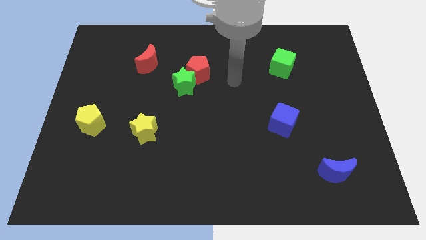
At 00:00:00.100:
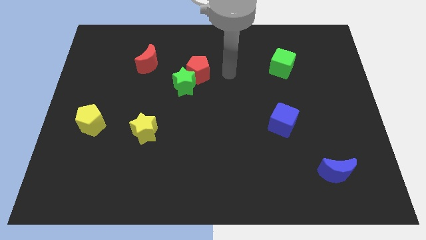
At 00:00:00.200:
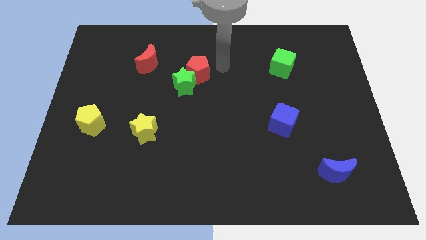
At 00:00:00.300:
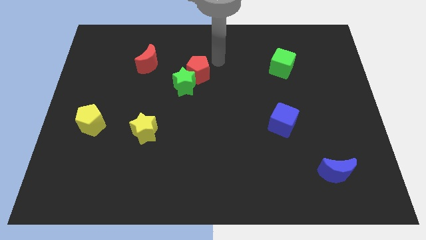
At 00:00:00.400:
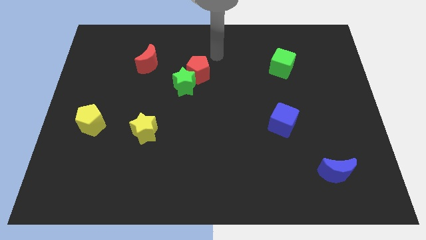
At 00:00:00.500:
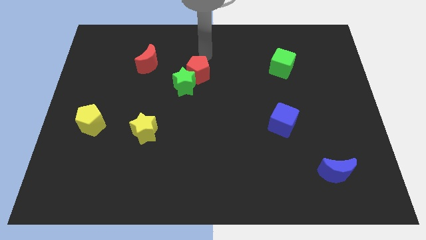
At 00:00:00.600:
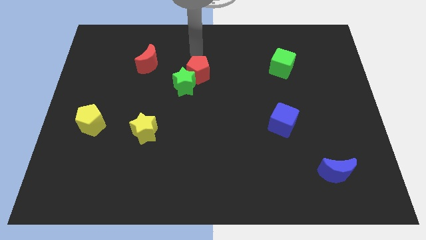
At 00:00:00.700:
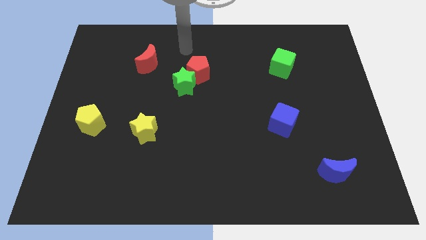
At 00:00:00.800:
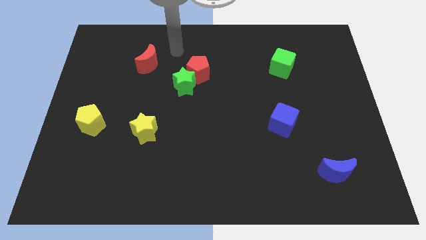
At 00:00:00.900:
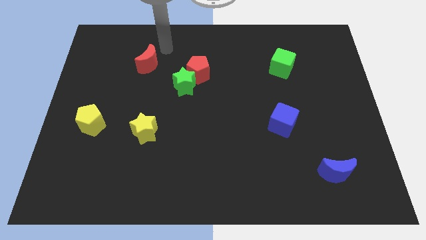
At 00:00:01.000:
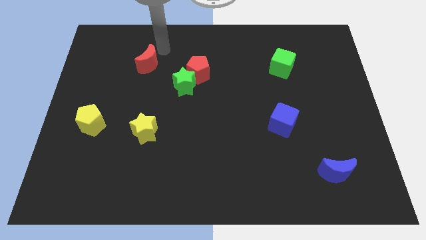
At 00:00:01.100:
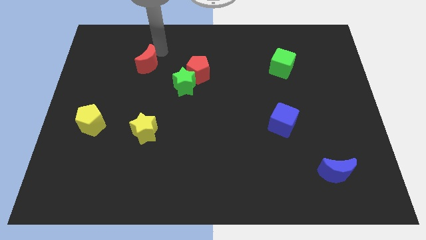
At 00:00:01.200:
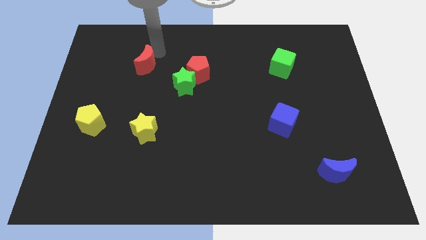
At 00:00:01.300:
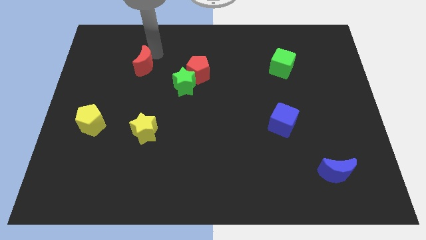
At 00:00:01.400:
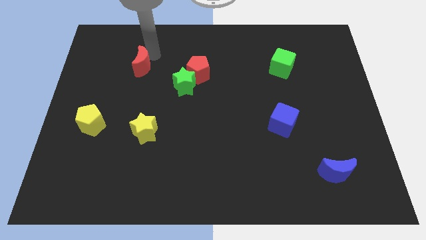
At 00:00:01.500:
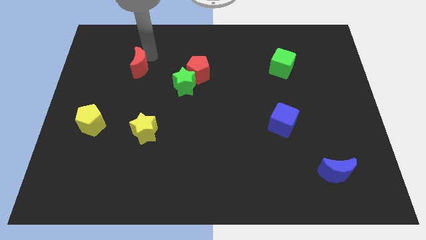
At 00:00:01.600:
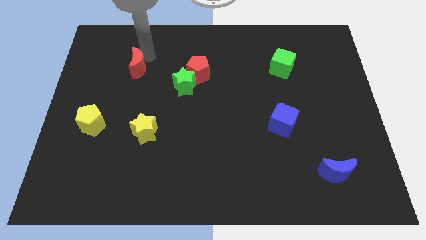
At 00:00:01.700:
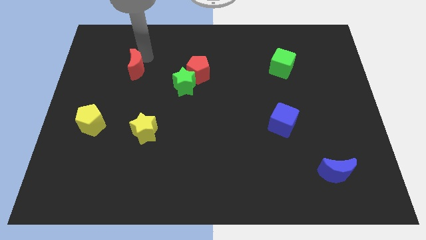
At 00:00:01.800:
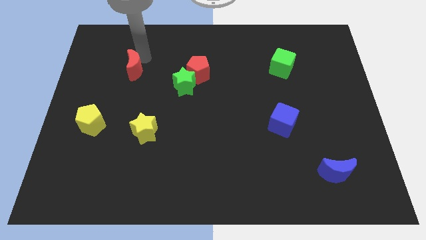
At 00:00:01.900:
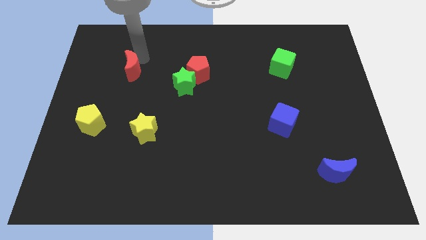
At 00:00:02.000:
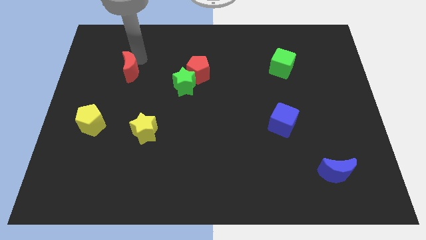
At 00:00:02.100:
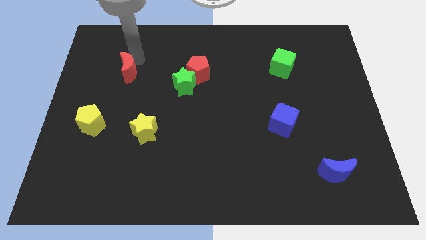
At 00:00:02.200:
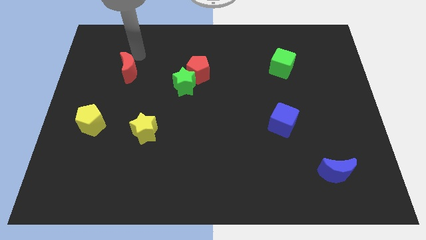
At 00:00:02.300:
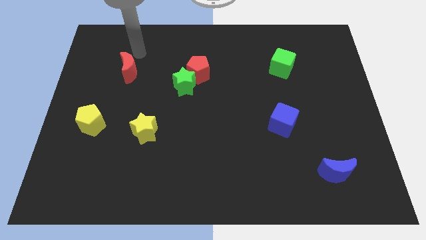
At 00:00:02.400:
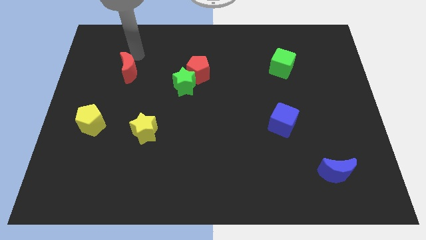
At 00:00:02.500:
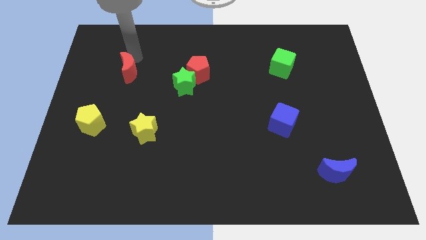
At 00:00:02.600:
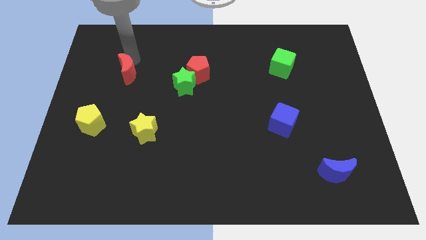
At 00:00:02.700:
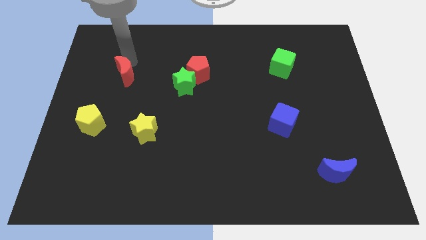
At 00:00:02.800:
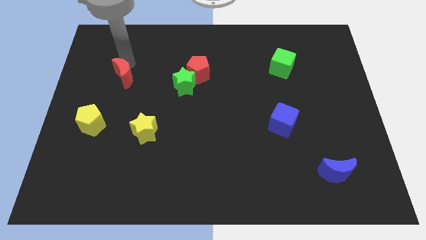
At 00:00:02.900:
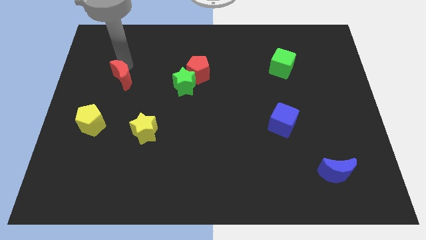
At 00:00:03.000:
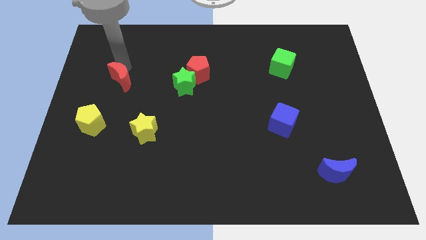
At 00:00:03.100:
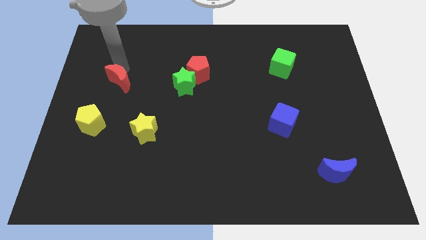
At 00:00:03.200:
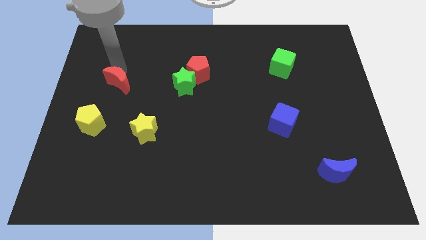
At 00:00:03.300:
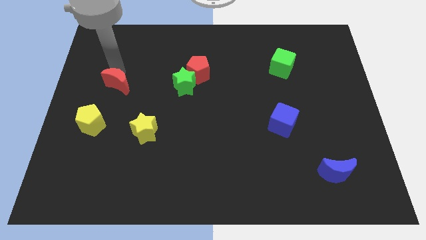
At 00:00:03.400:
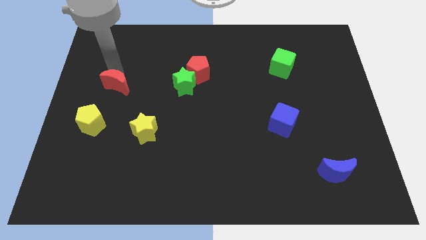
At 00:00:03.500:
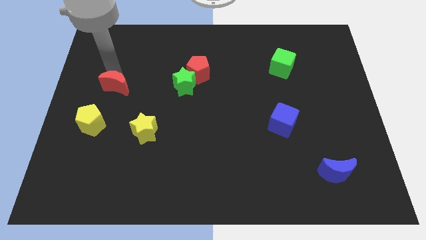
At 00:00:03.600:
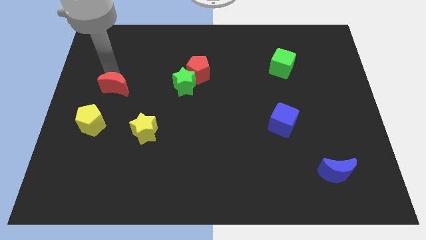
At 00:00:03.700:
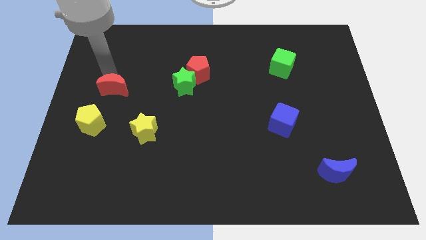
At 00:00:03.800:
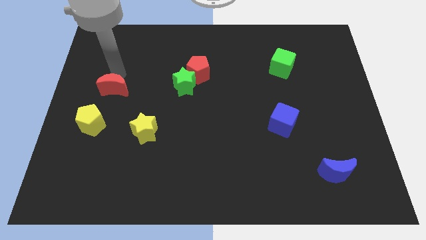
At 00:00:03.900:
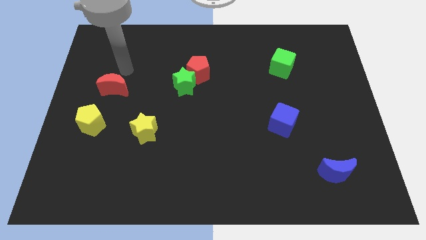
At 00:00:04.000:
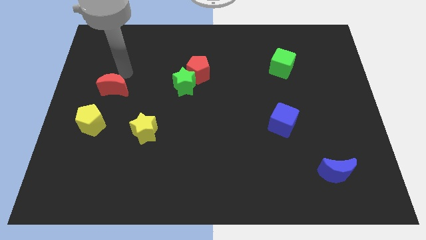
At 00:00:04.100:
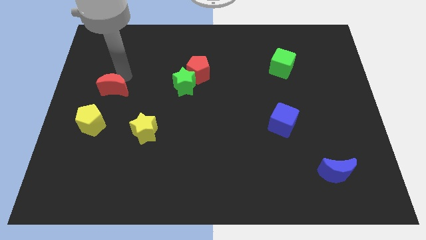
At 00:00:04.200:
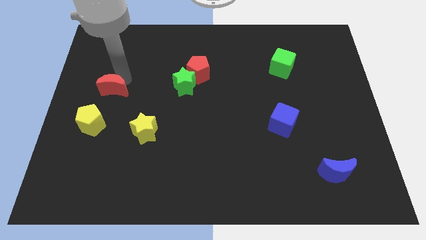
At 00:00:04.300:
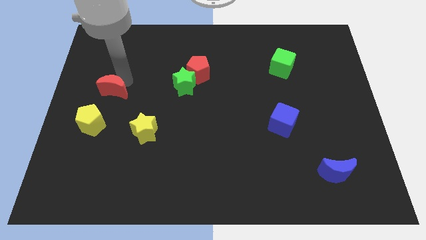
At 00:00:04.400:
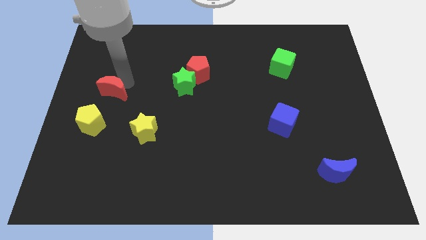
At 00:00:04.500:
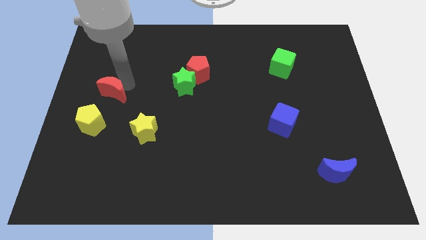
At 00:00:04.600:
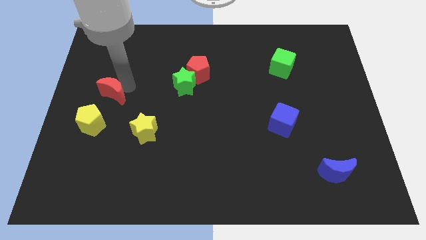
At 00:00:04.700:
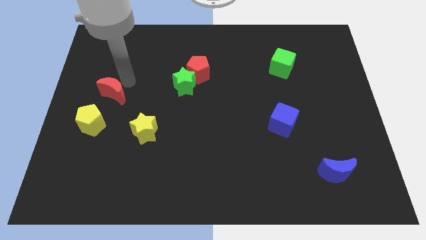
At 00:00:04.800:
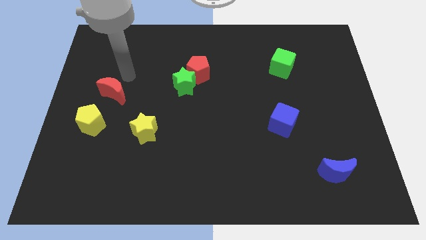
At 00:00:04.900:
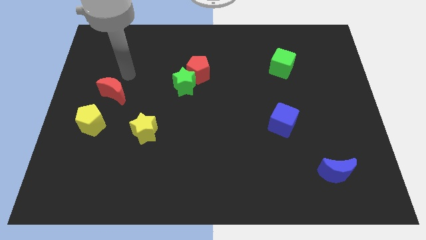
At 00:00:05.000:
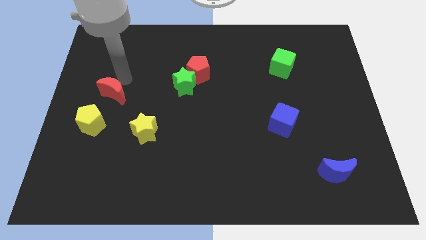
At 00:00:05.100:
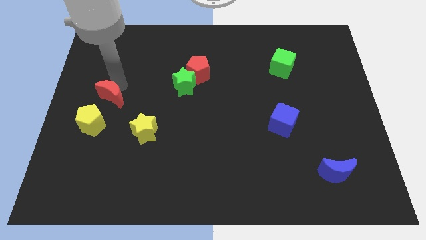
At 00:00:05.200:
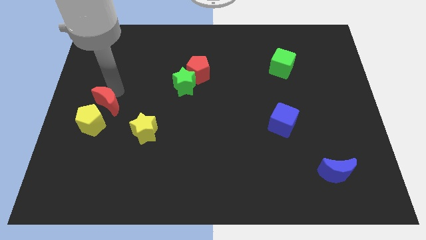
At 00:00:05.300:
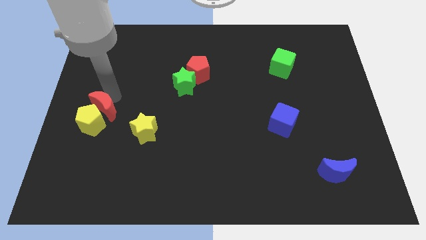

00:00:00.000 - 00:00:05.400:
slide the red moon close to the yellow pentagon

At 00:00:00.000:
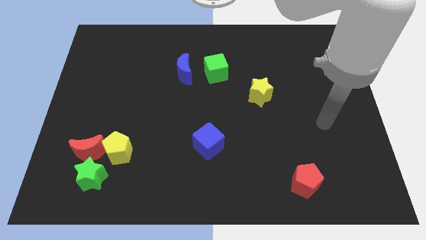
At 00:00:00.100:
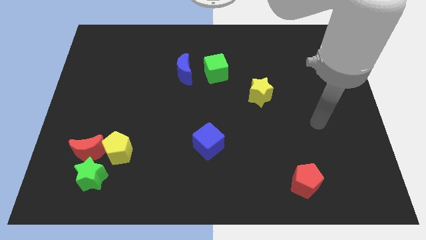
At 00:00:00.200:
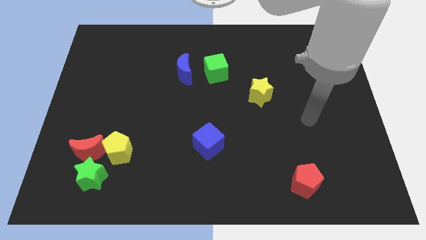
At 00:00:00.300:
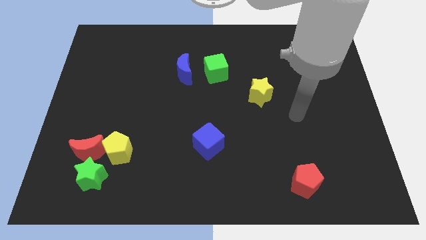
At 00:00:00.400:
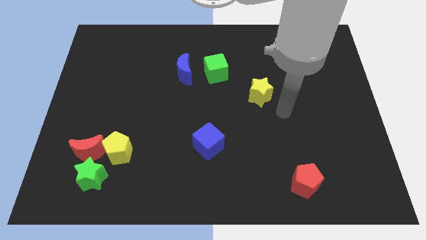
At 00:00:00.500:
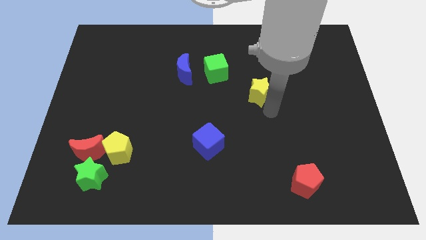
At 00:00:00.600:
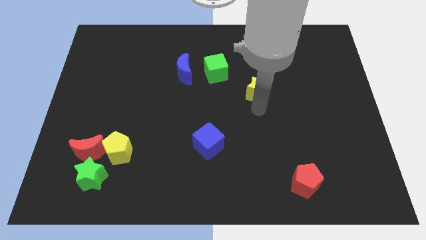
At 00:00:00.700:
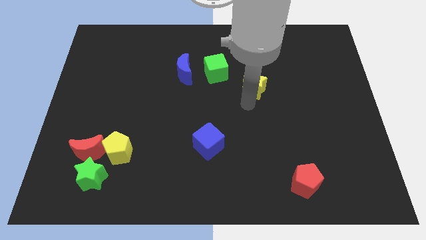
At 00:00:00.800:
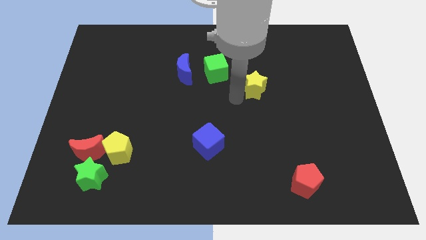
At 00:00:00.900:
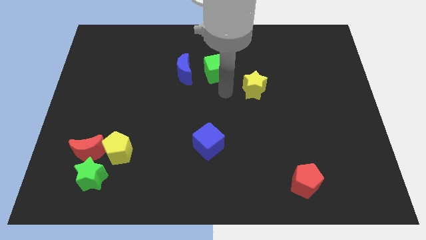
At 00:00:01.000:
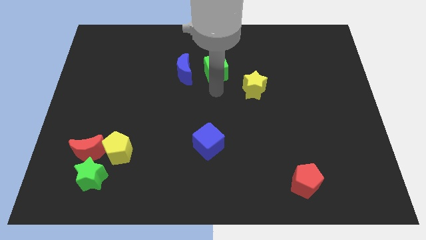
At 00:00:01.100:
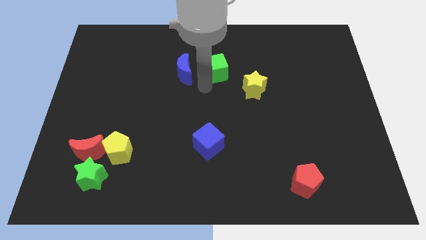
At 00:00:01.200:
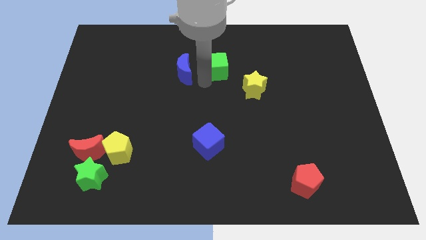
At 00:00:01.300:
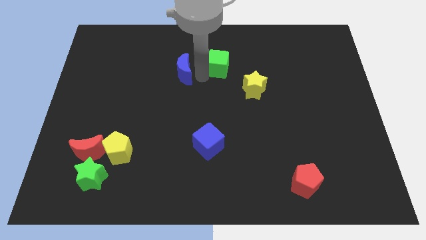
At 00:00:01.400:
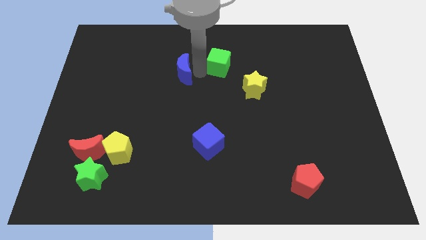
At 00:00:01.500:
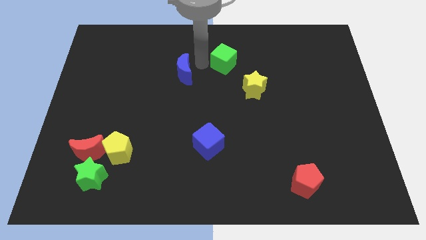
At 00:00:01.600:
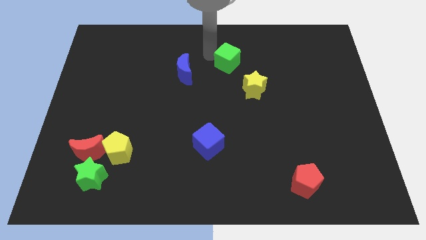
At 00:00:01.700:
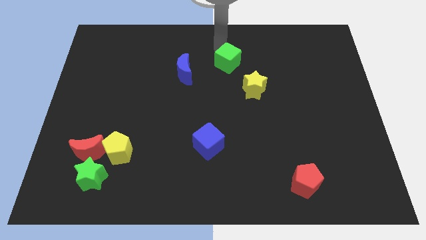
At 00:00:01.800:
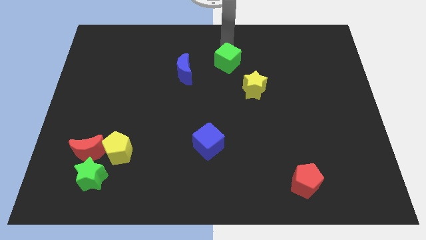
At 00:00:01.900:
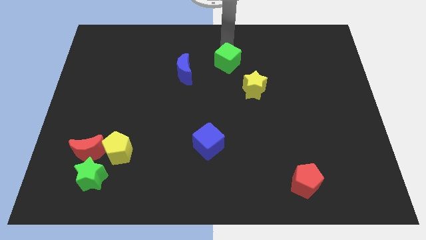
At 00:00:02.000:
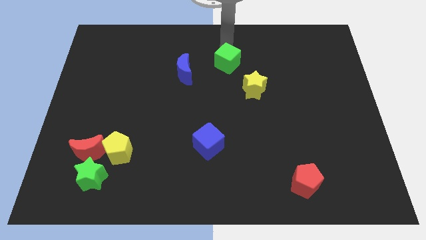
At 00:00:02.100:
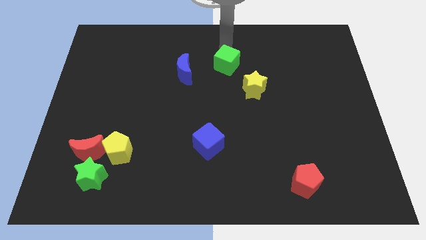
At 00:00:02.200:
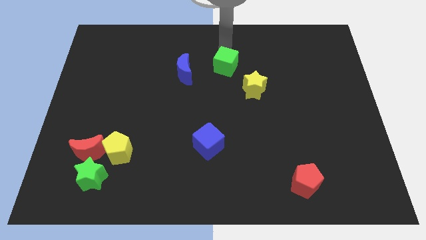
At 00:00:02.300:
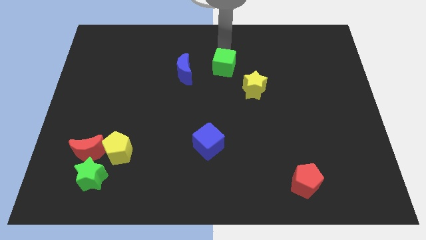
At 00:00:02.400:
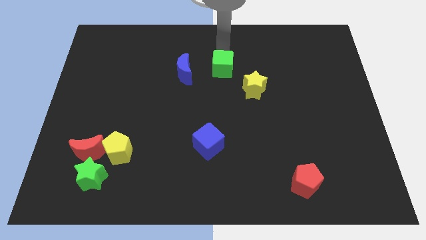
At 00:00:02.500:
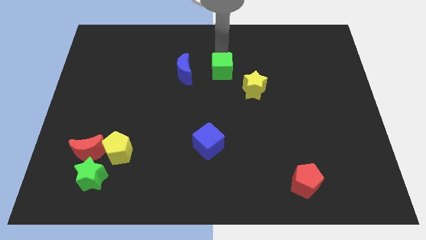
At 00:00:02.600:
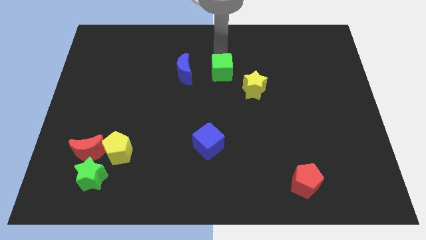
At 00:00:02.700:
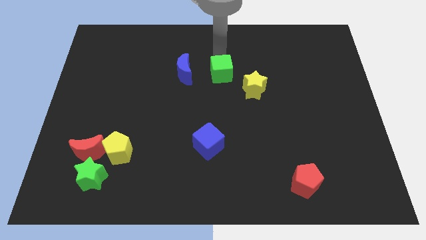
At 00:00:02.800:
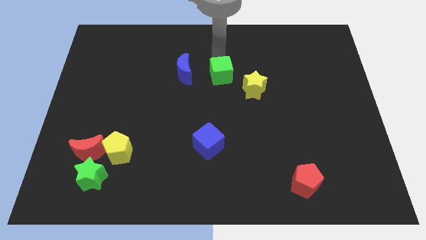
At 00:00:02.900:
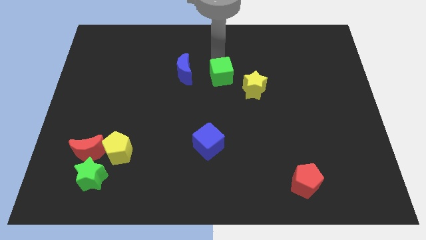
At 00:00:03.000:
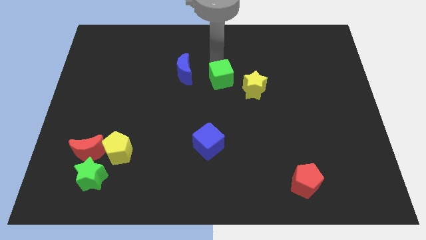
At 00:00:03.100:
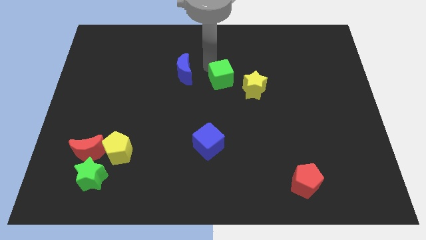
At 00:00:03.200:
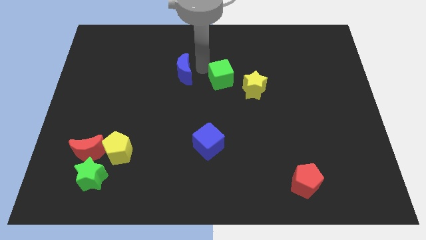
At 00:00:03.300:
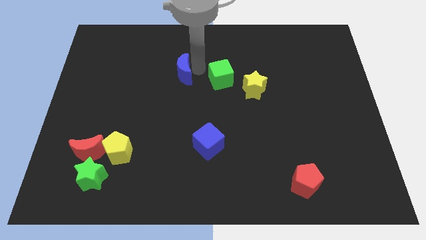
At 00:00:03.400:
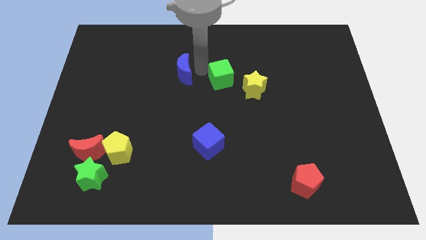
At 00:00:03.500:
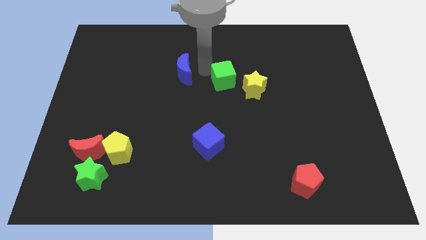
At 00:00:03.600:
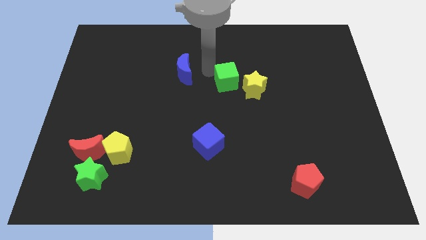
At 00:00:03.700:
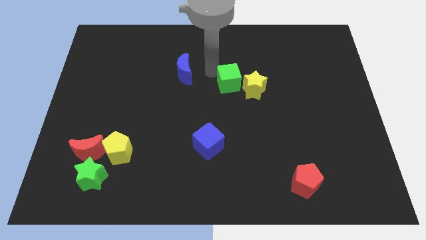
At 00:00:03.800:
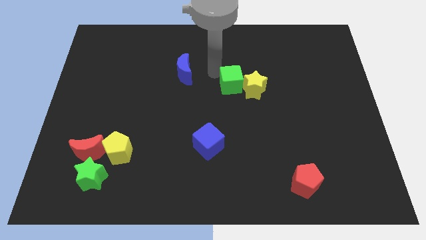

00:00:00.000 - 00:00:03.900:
put the green cube towards the yellow star
